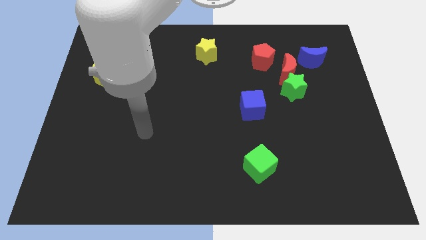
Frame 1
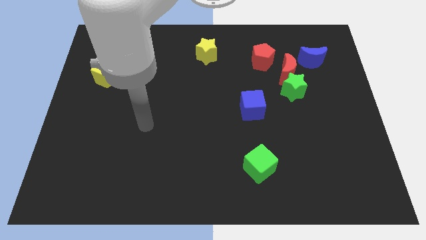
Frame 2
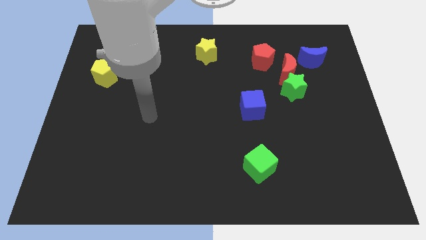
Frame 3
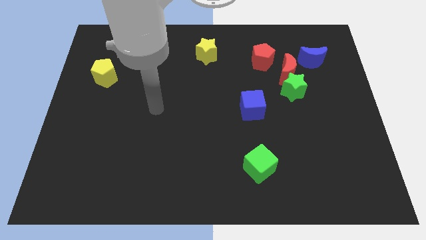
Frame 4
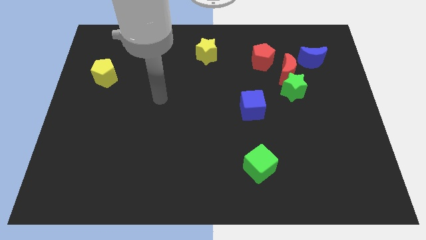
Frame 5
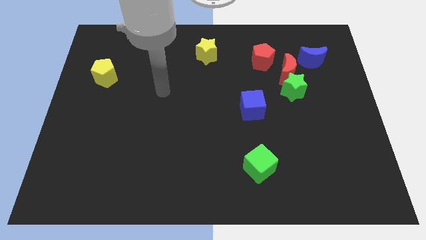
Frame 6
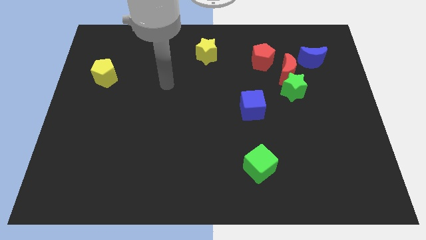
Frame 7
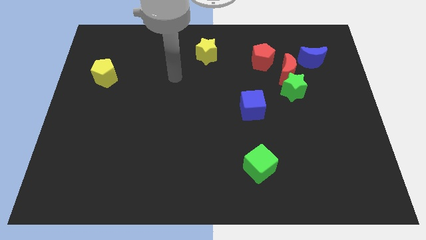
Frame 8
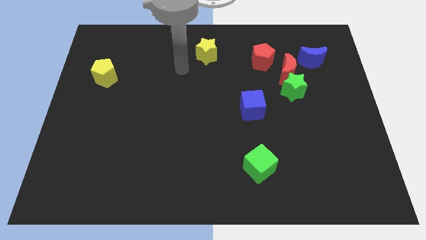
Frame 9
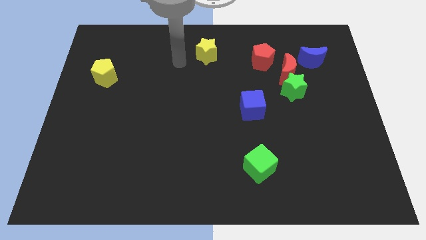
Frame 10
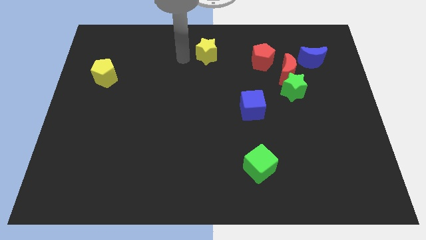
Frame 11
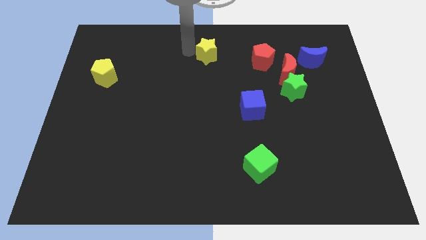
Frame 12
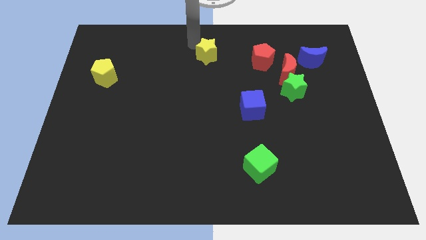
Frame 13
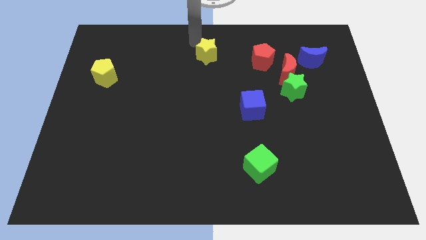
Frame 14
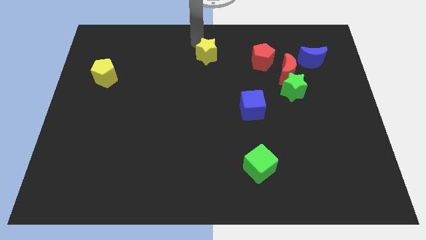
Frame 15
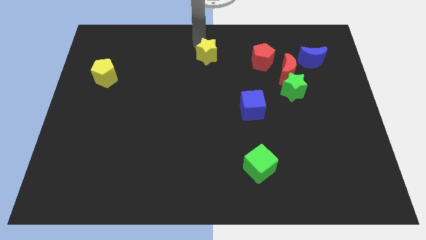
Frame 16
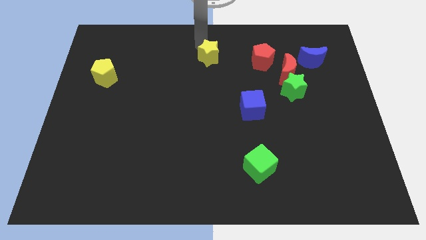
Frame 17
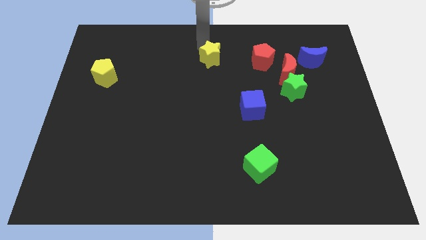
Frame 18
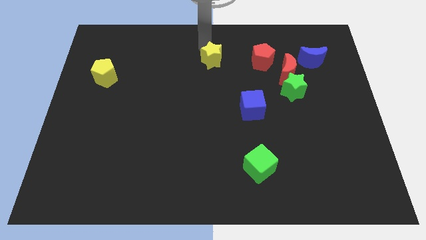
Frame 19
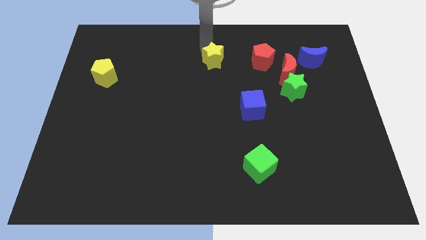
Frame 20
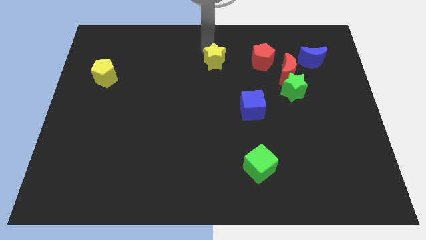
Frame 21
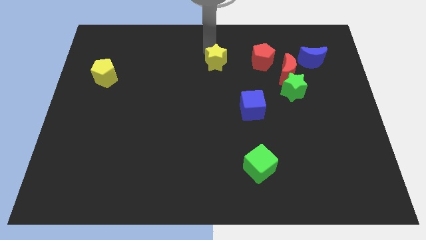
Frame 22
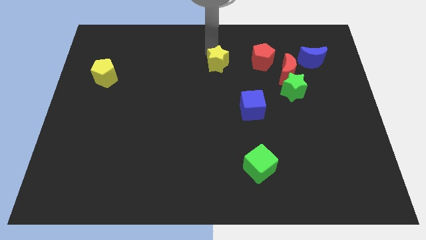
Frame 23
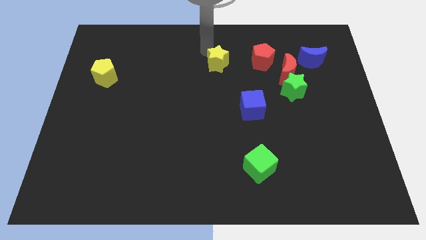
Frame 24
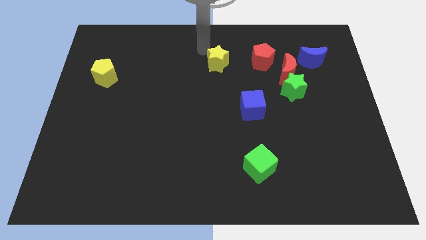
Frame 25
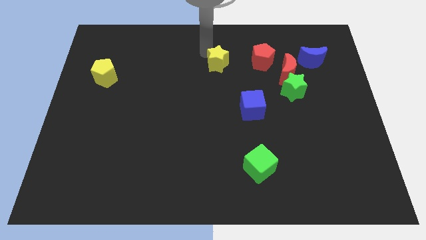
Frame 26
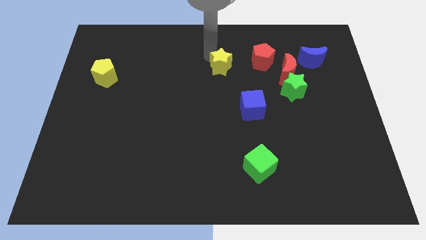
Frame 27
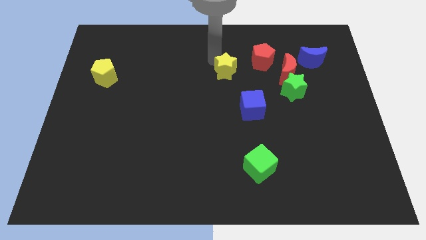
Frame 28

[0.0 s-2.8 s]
slightly push the yellow star downwards and to the right diagonally

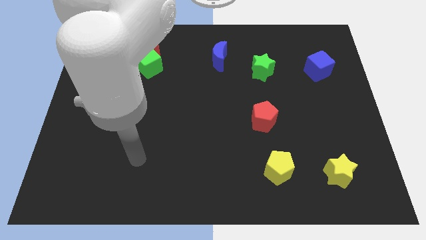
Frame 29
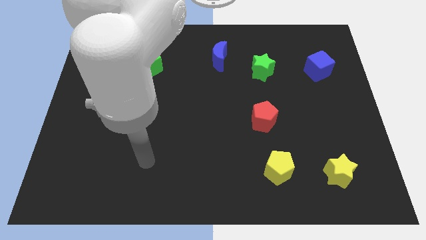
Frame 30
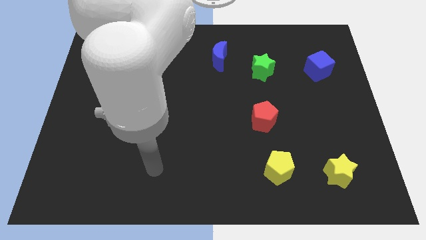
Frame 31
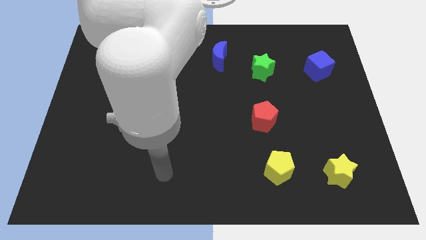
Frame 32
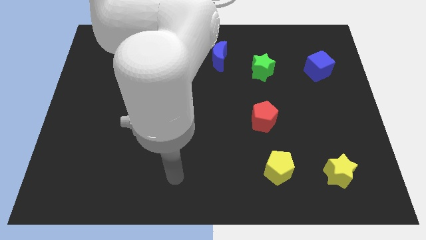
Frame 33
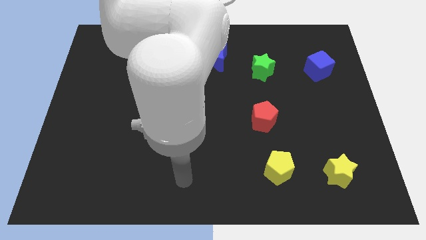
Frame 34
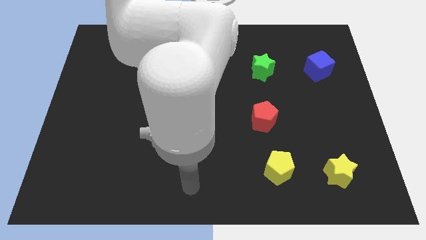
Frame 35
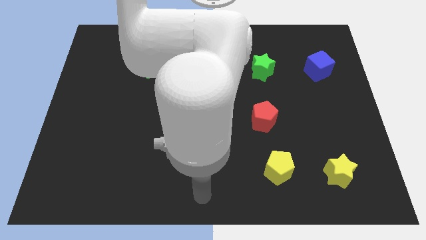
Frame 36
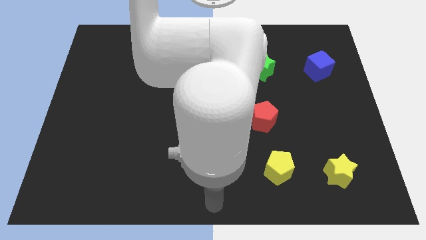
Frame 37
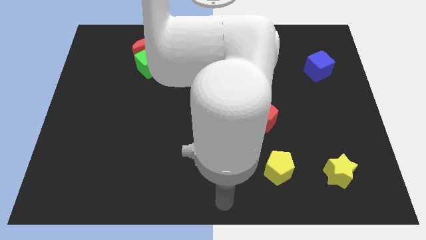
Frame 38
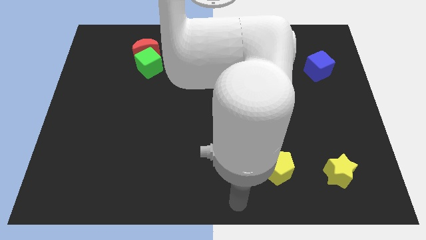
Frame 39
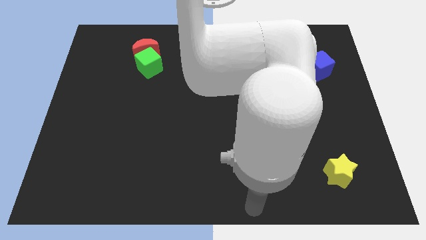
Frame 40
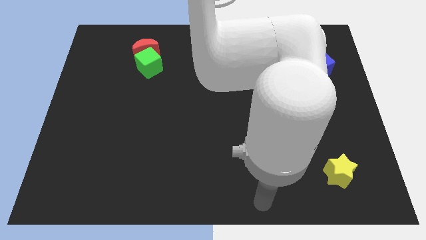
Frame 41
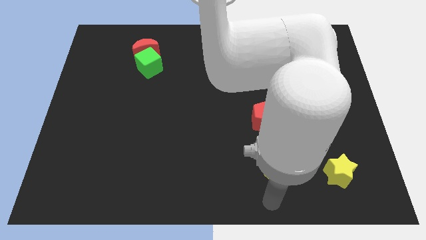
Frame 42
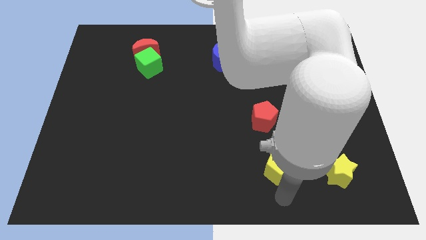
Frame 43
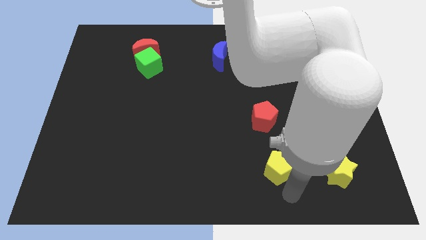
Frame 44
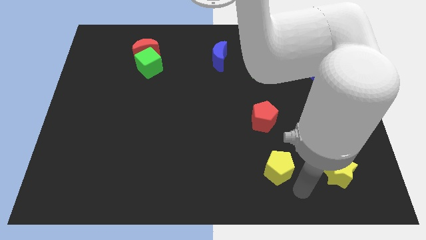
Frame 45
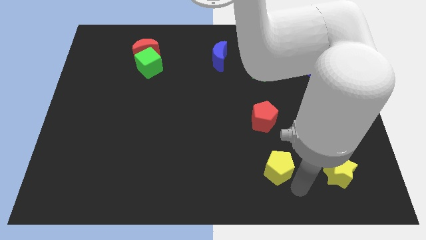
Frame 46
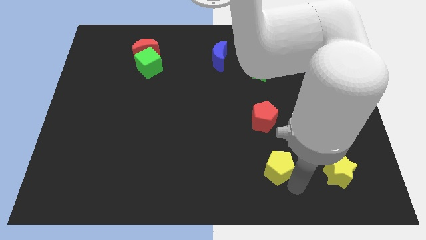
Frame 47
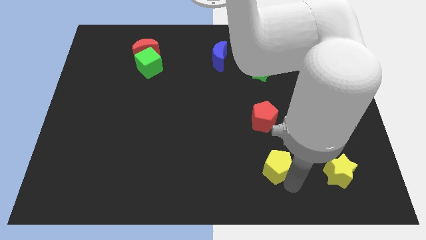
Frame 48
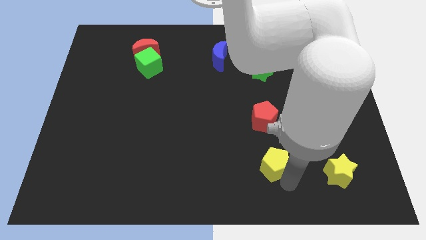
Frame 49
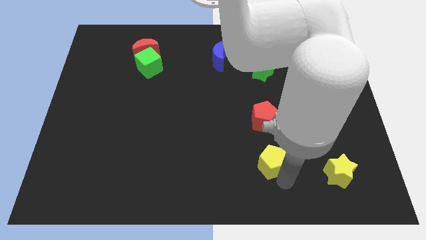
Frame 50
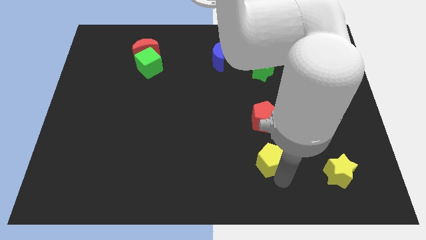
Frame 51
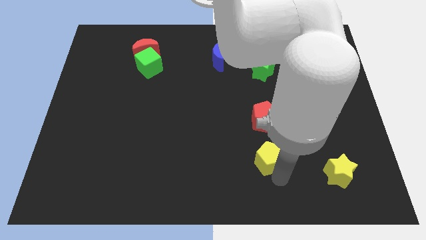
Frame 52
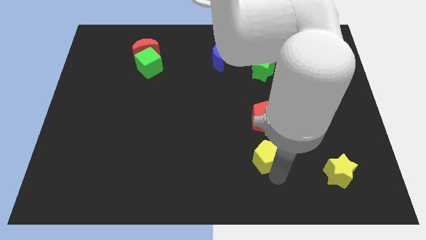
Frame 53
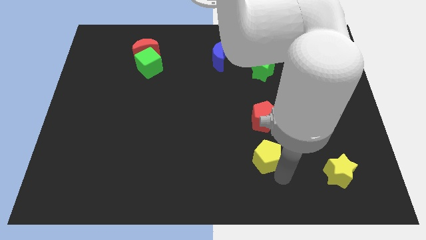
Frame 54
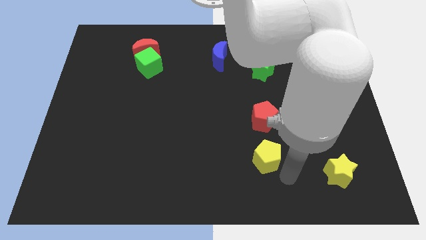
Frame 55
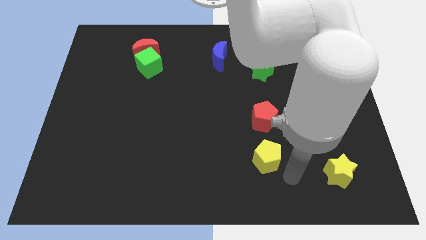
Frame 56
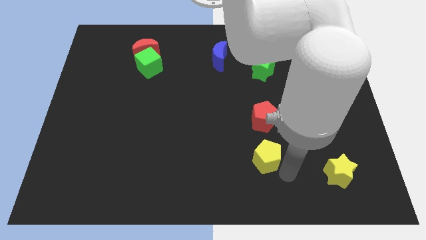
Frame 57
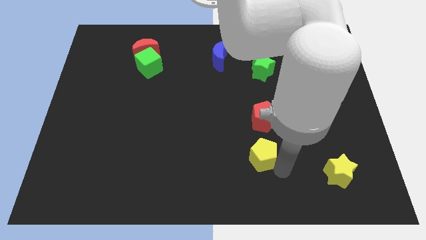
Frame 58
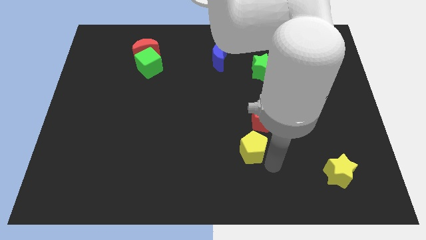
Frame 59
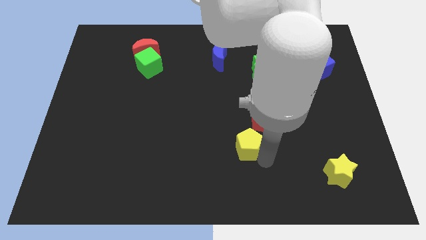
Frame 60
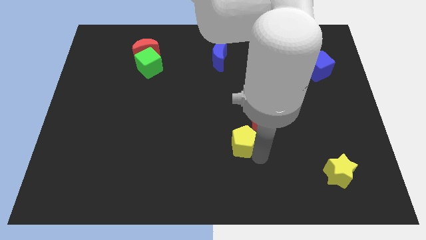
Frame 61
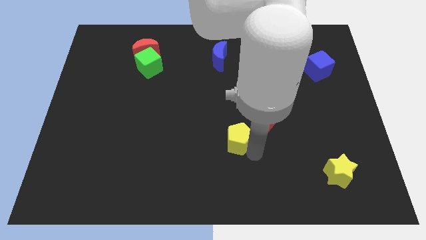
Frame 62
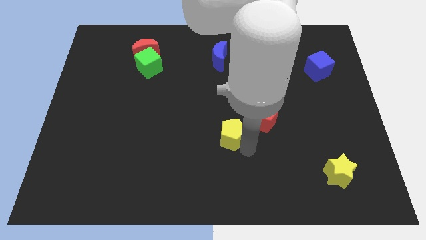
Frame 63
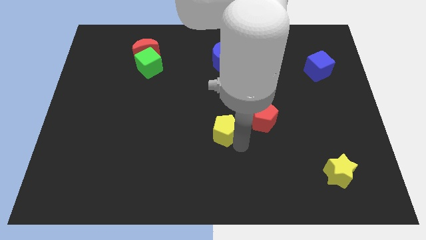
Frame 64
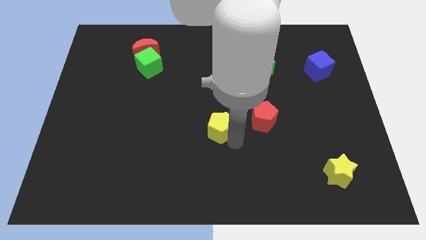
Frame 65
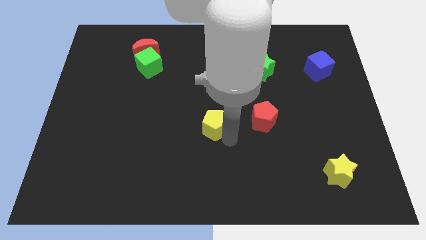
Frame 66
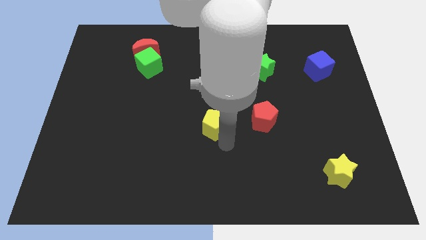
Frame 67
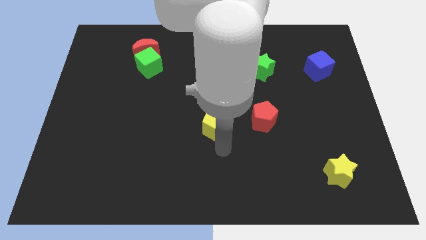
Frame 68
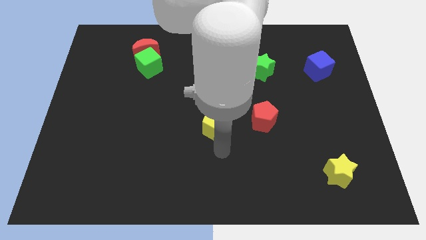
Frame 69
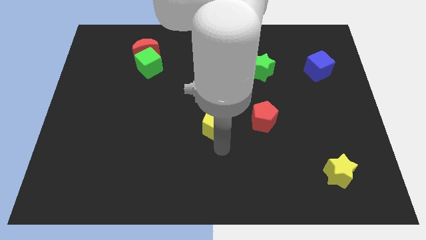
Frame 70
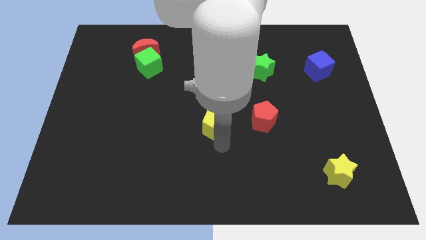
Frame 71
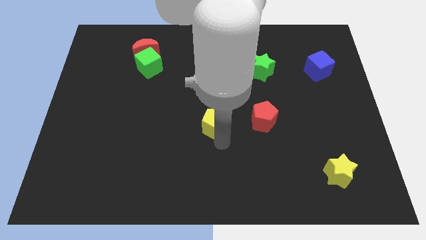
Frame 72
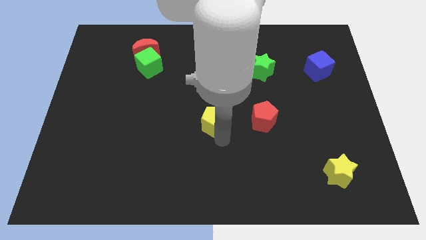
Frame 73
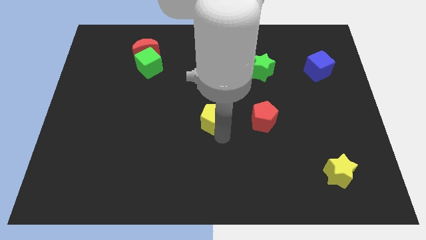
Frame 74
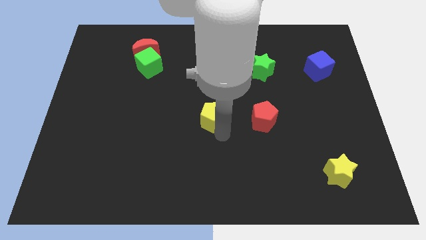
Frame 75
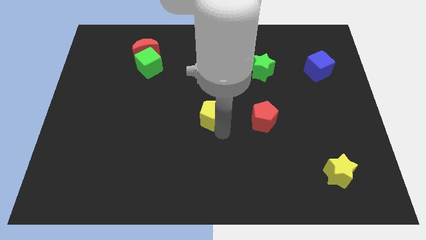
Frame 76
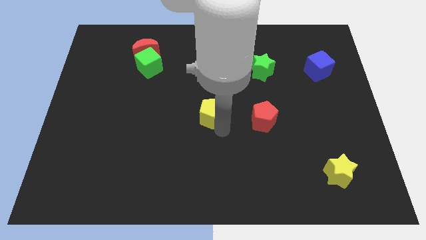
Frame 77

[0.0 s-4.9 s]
push the yellow pentagon diagonally upwards and to the left

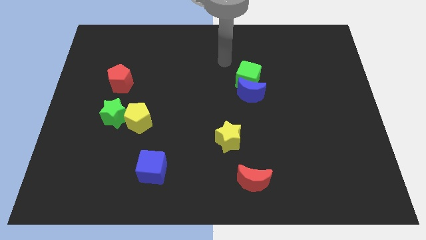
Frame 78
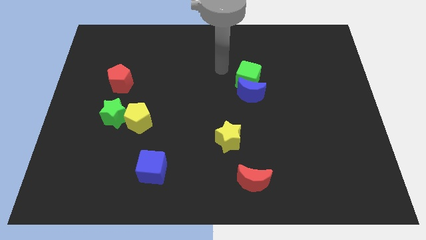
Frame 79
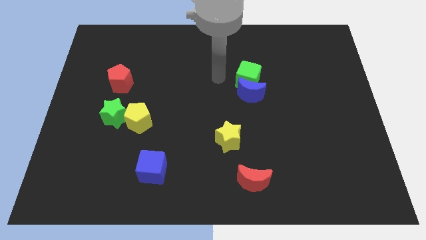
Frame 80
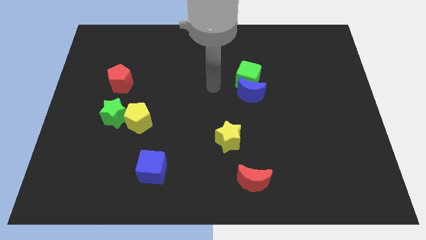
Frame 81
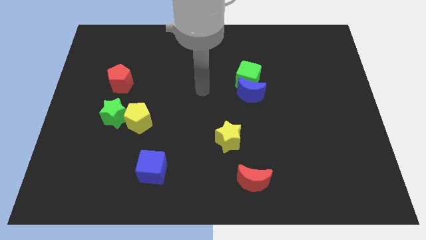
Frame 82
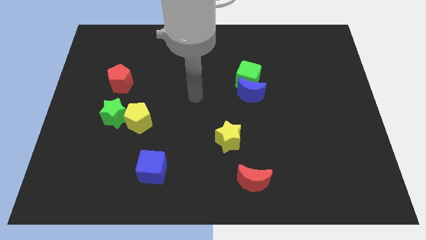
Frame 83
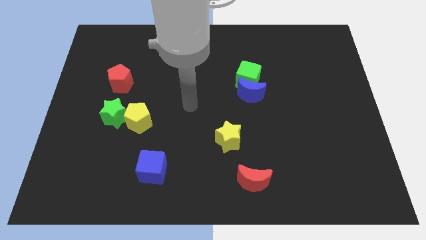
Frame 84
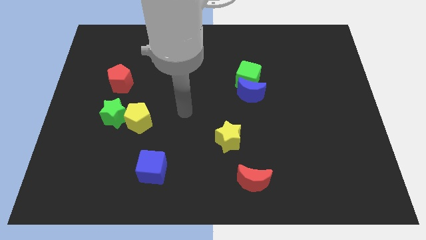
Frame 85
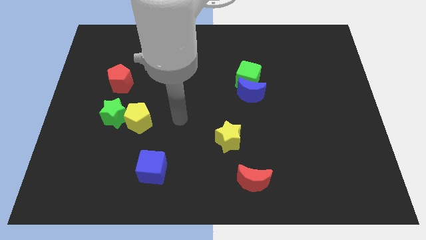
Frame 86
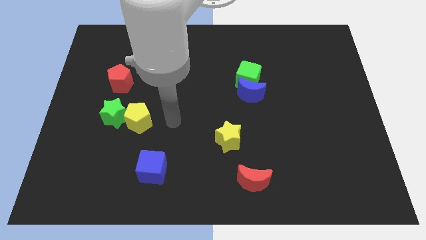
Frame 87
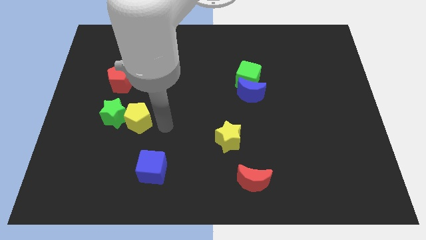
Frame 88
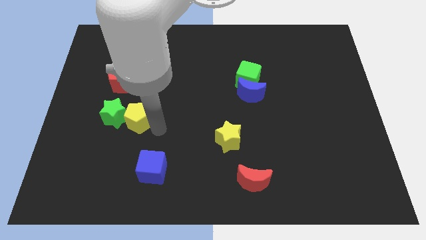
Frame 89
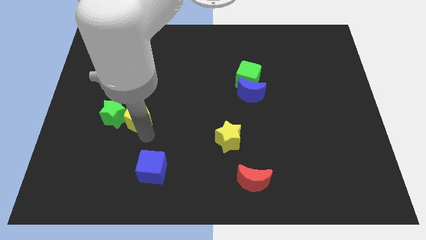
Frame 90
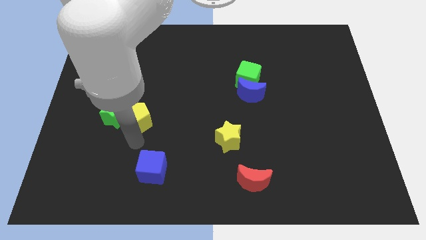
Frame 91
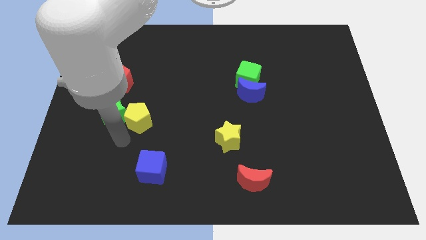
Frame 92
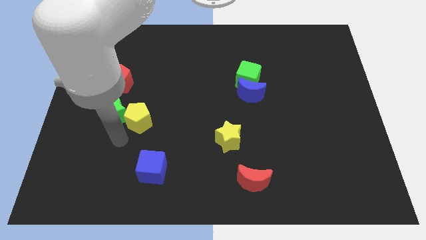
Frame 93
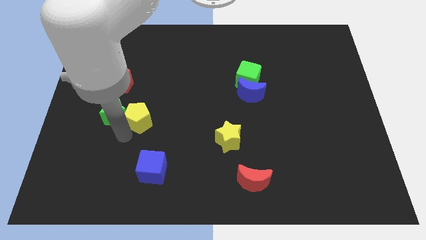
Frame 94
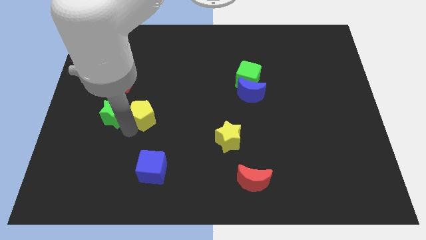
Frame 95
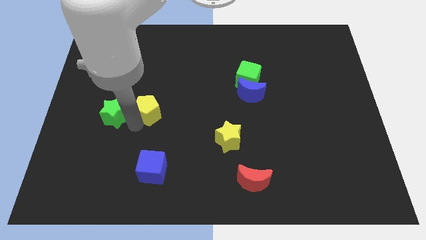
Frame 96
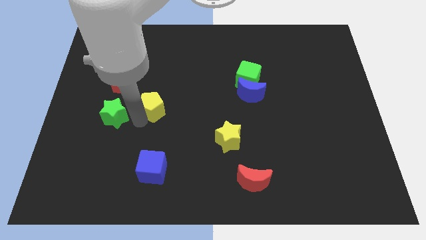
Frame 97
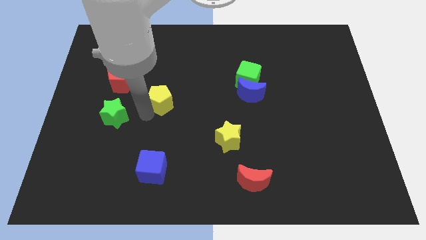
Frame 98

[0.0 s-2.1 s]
slightly push the yellow pentagon upwards and then to the right
